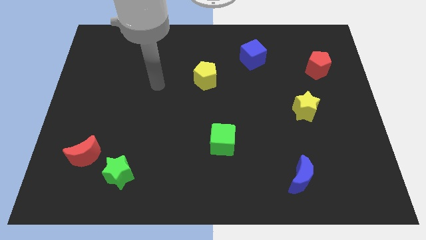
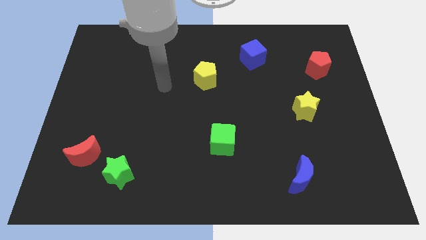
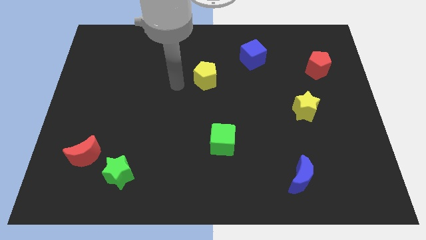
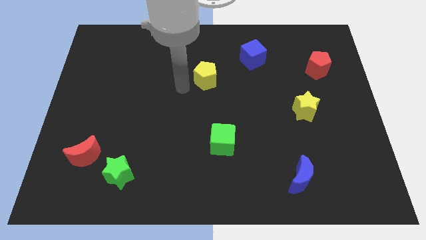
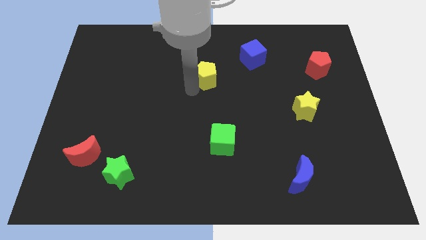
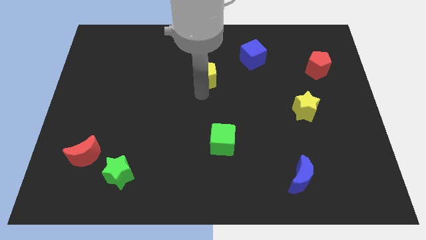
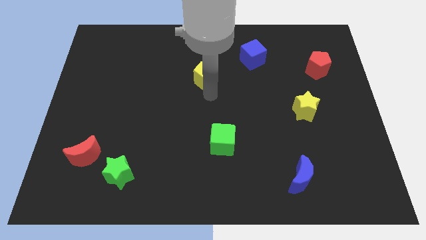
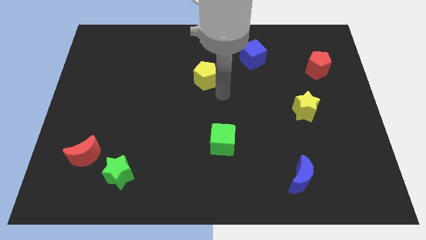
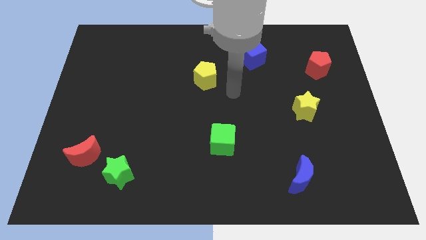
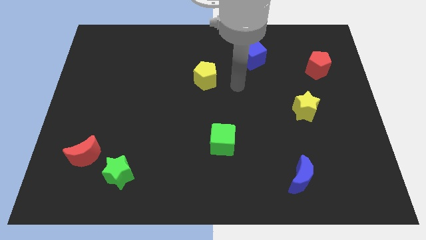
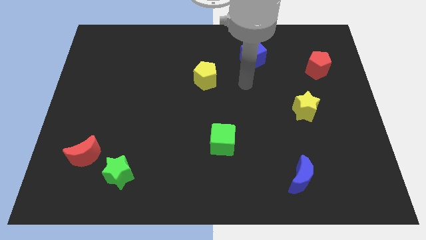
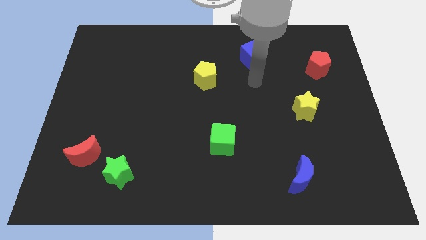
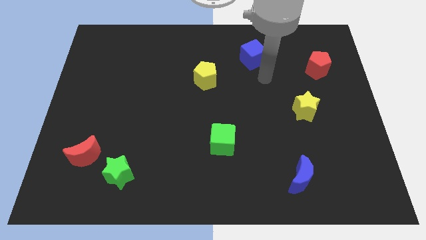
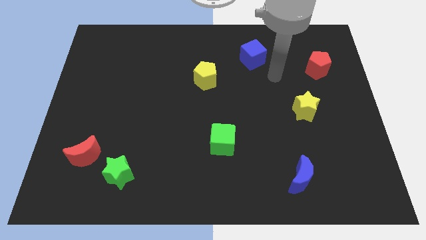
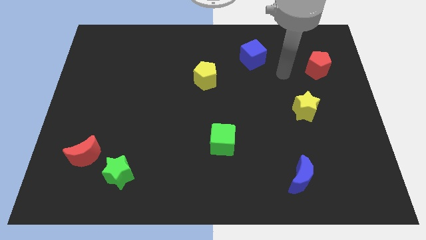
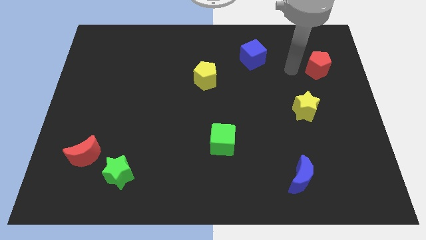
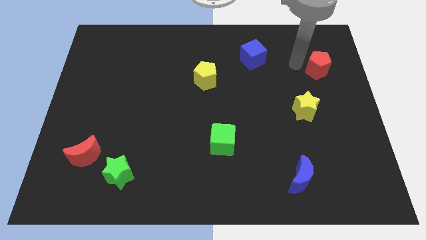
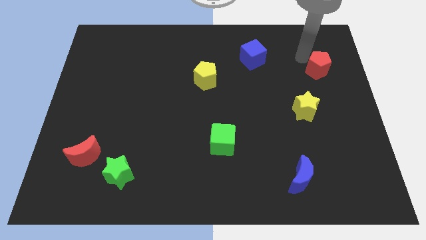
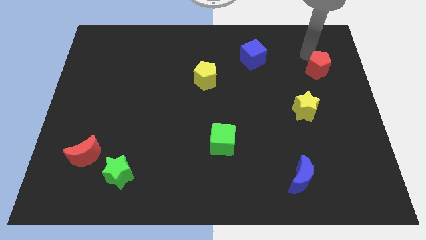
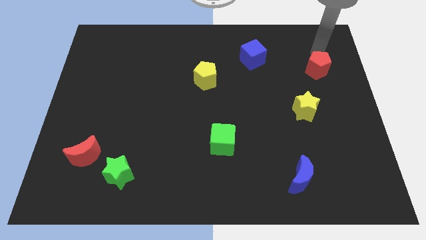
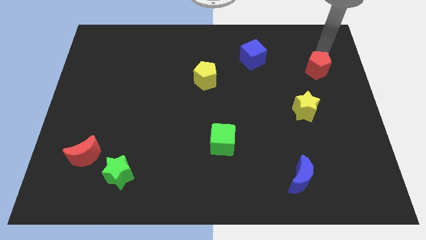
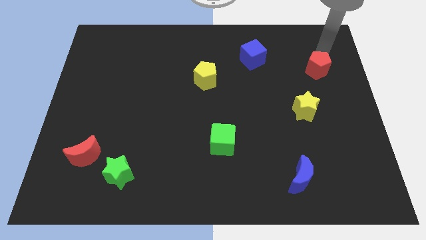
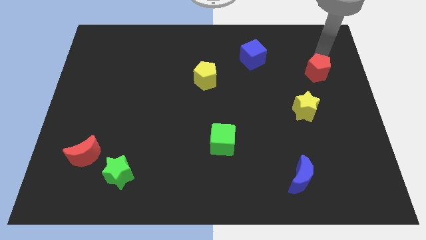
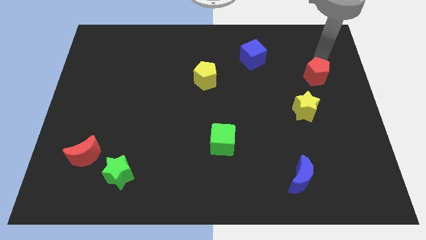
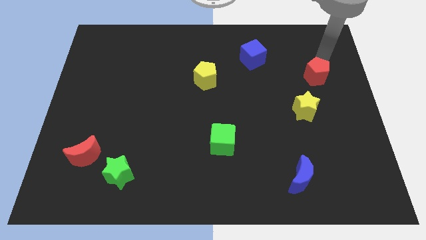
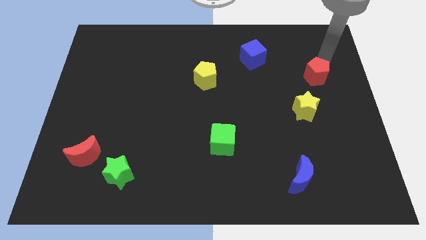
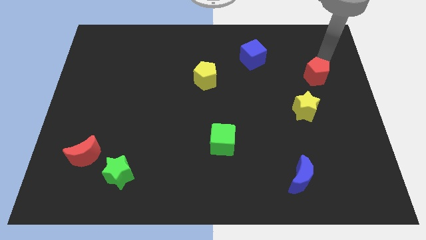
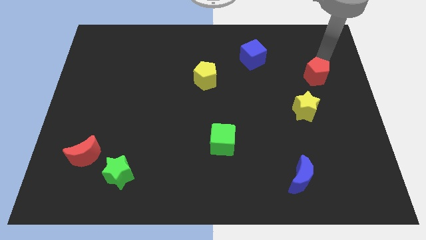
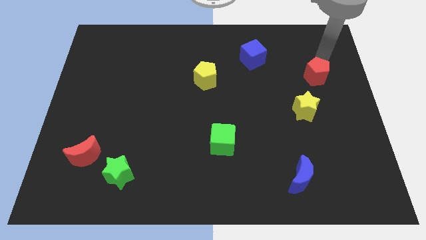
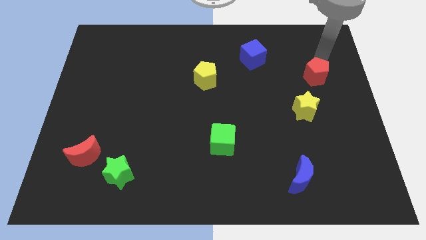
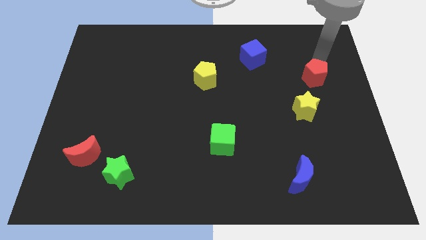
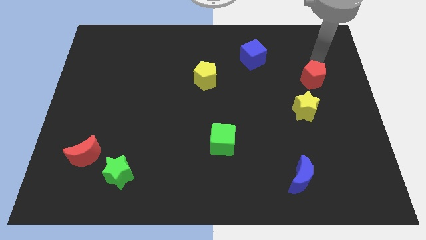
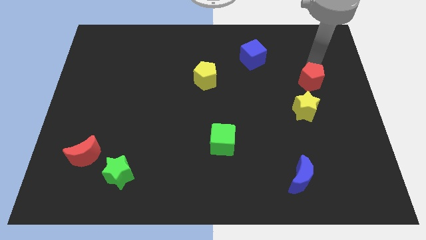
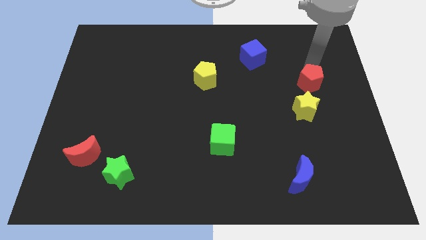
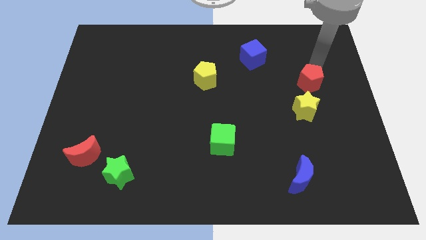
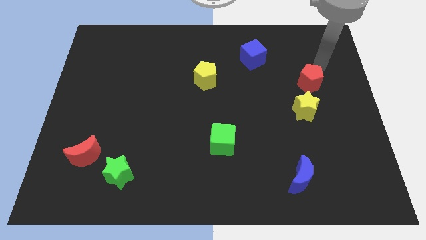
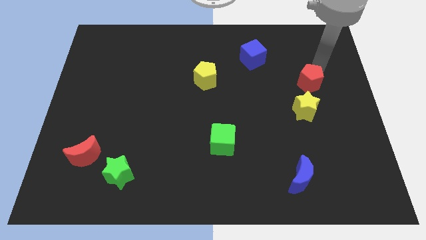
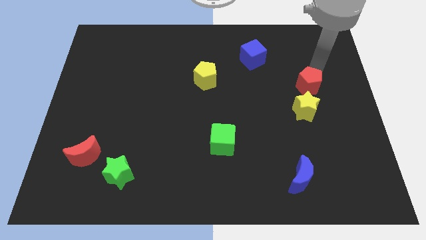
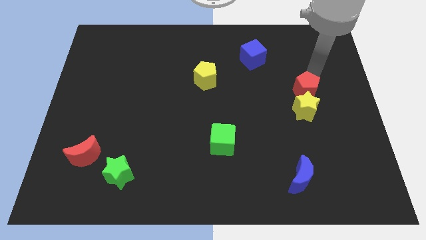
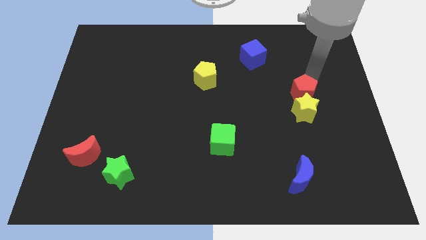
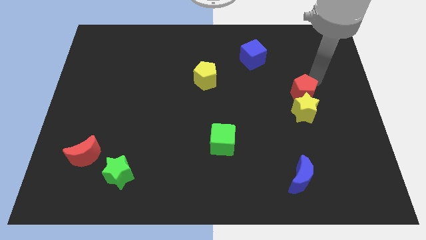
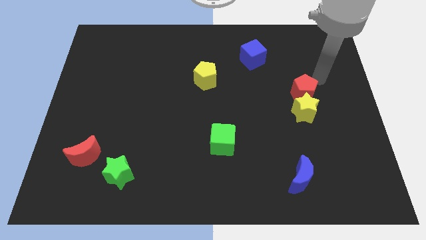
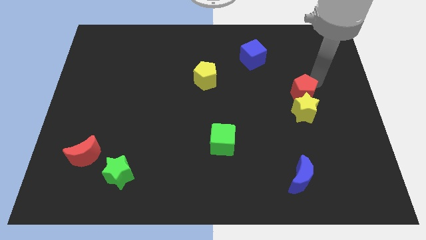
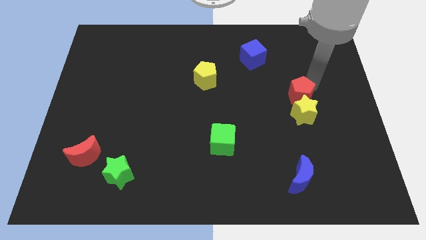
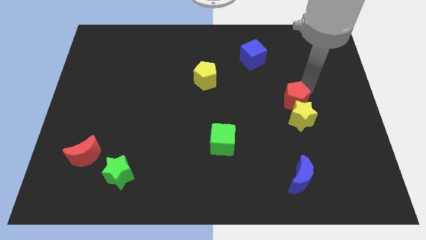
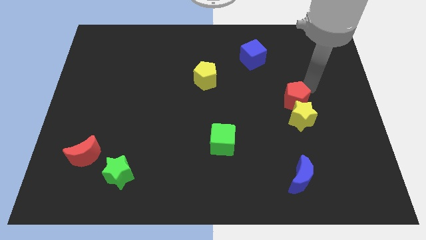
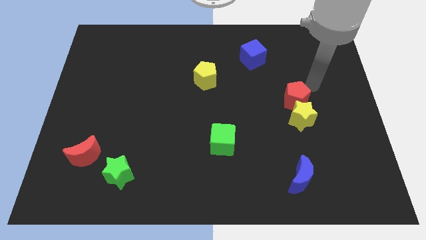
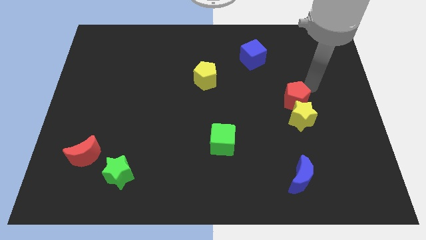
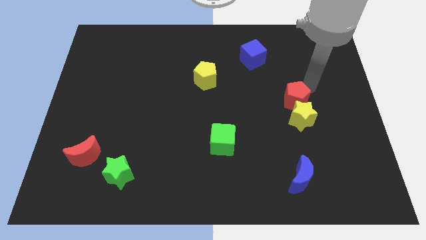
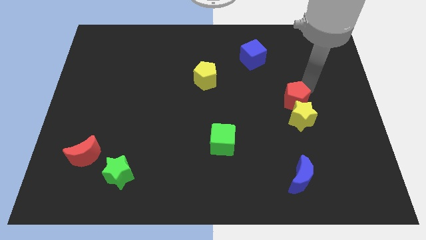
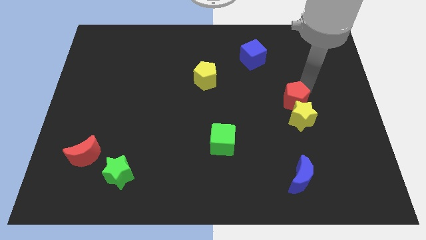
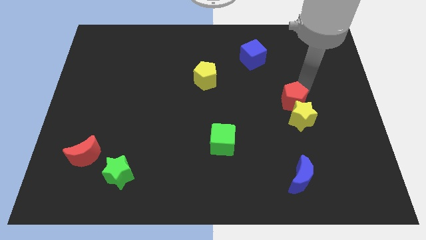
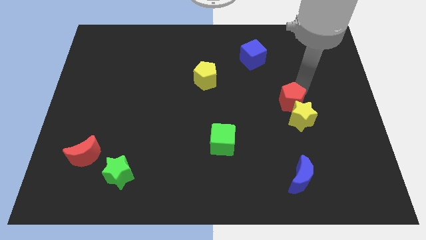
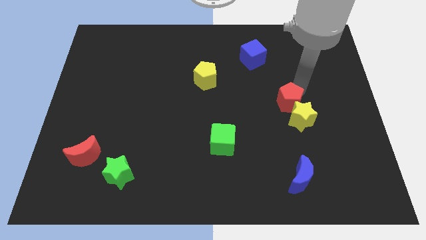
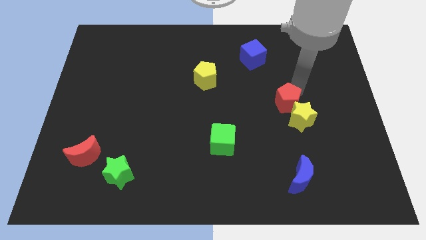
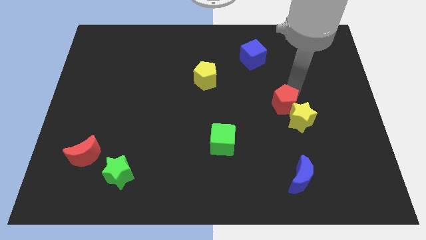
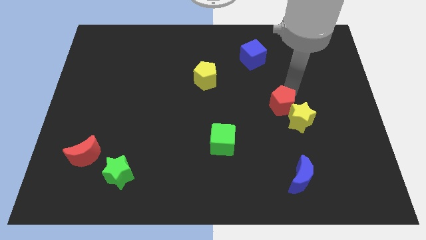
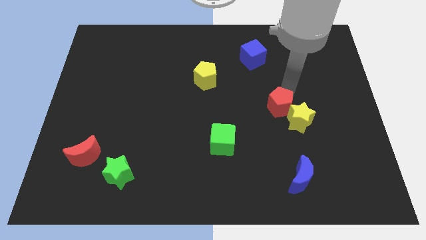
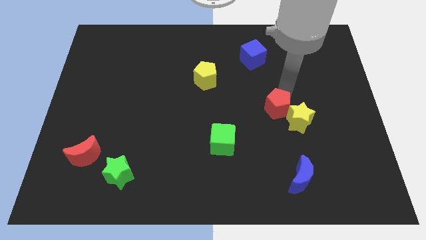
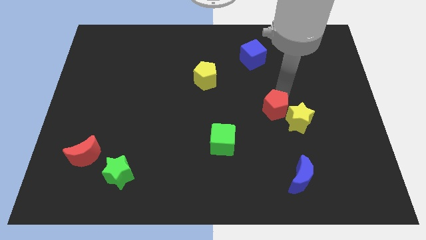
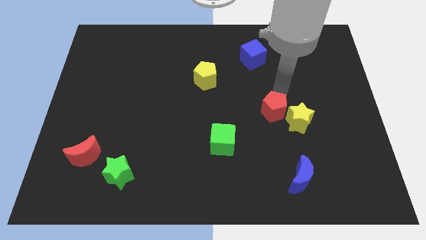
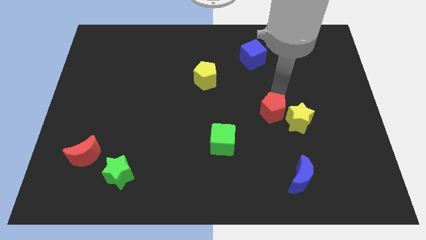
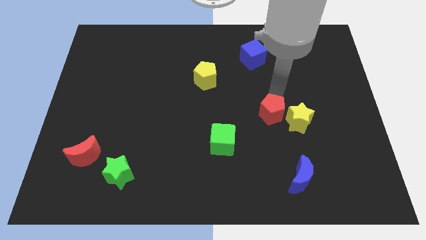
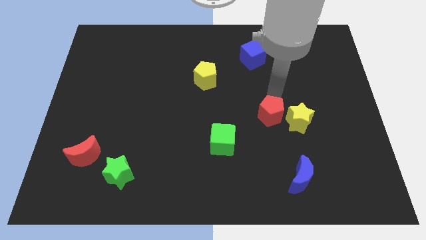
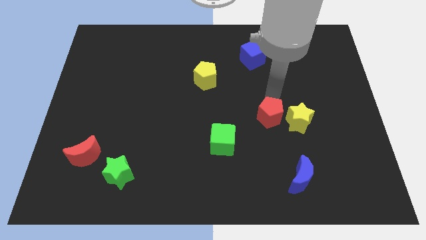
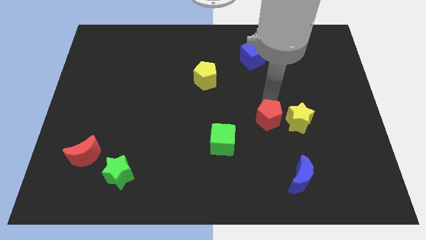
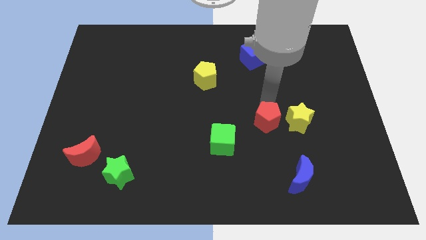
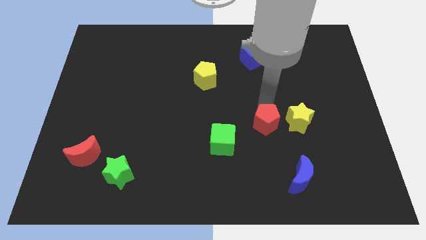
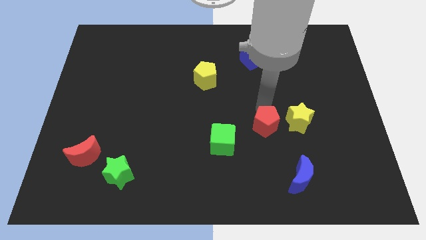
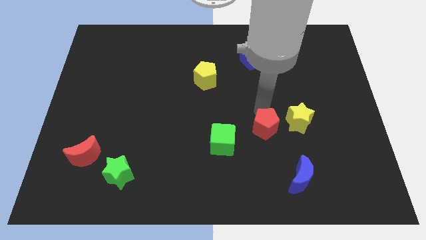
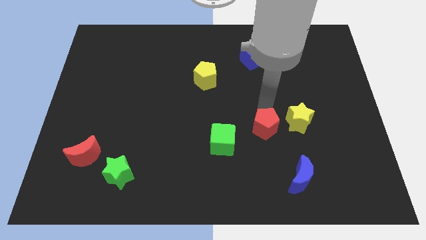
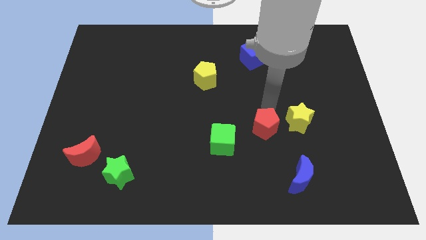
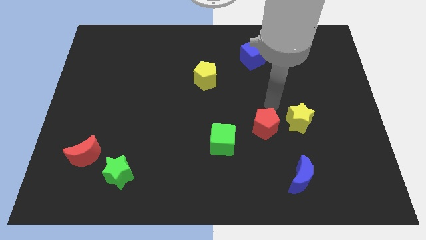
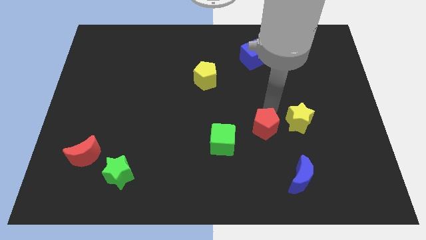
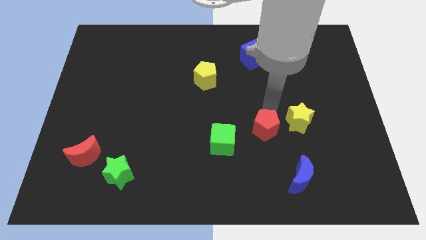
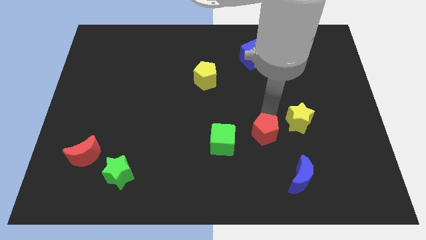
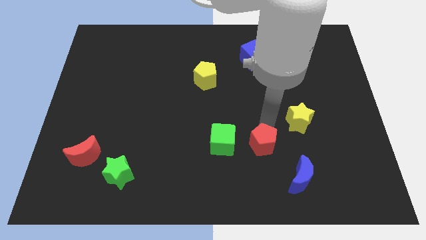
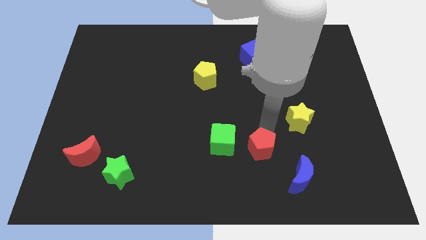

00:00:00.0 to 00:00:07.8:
slide the red pentagon diagonally down and to the right of the green cube

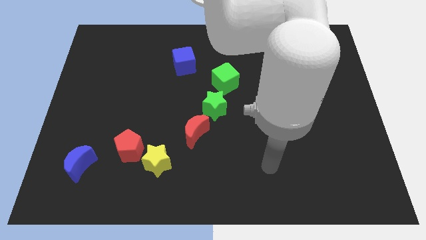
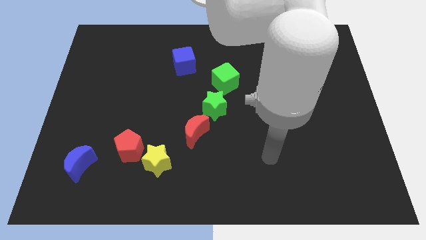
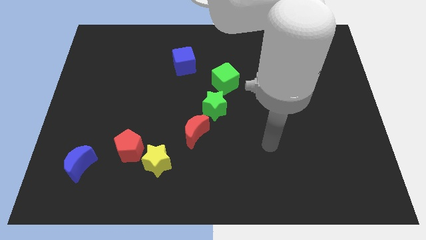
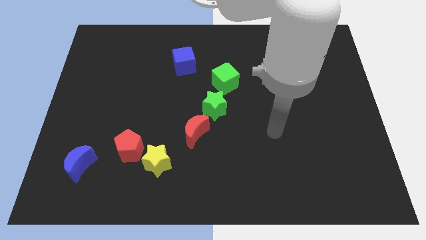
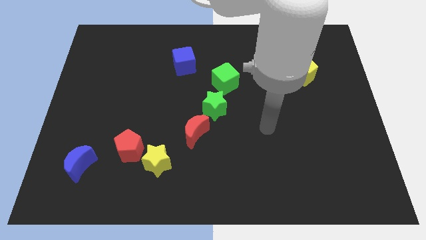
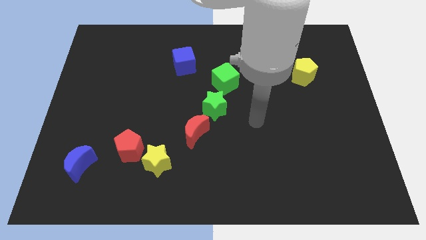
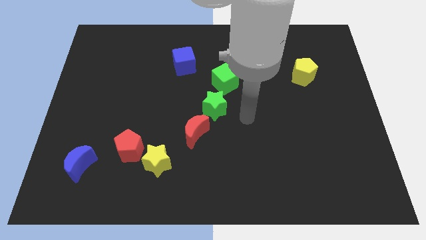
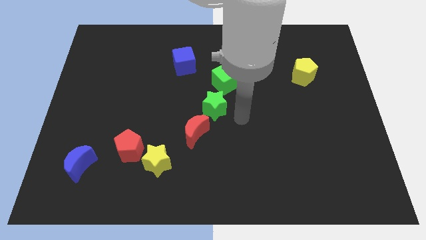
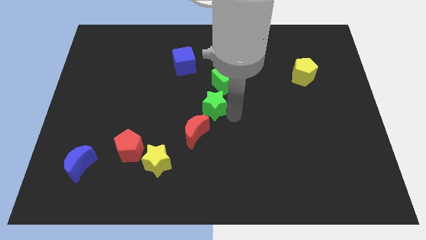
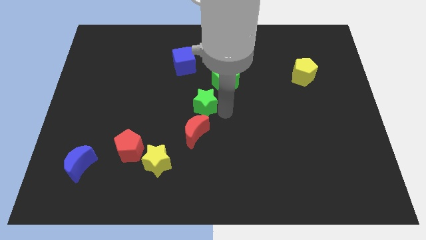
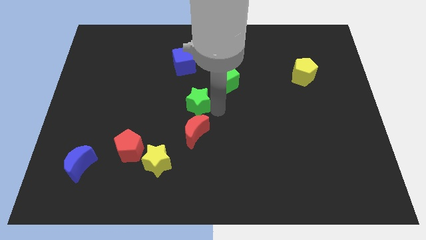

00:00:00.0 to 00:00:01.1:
slide the green star below the blue cube
